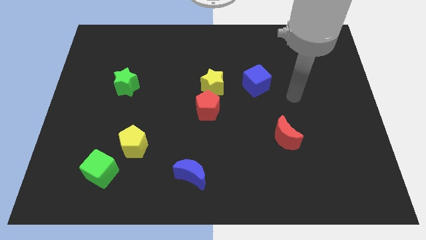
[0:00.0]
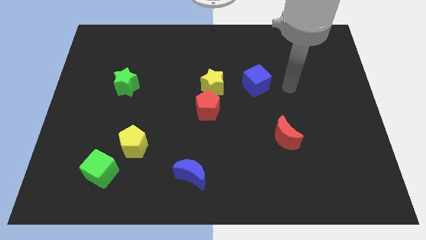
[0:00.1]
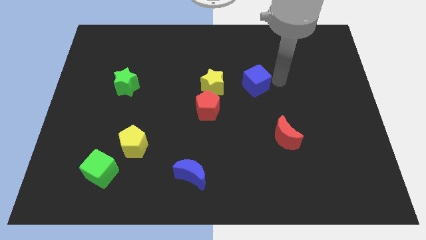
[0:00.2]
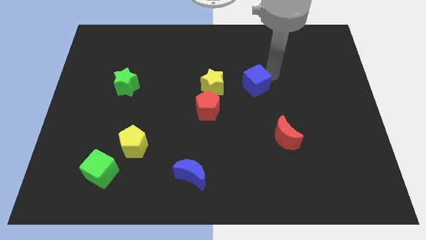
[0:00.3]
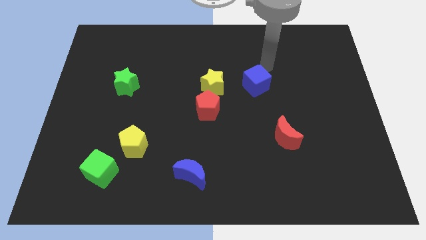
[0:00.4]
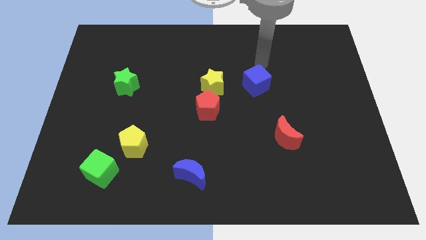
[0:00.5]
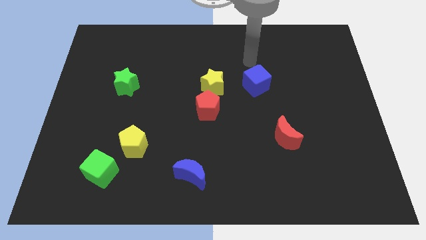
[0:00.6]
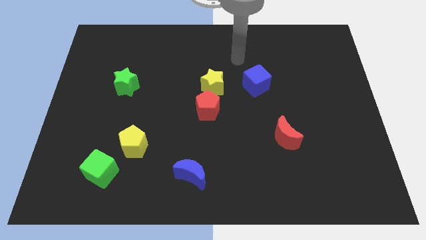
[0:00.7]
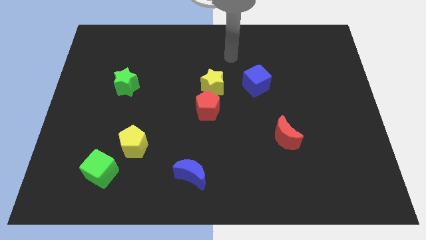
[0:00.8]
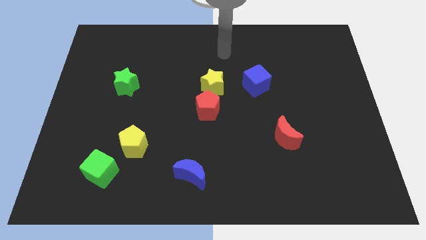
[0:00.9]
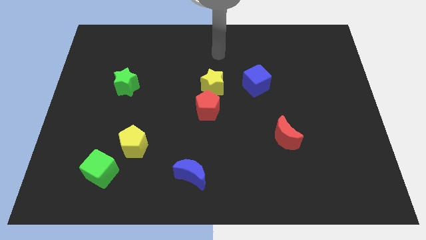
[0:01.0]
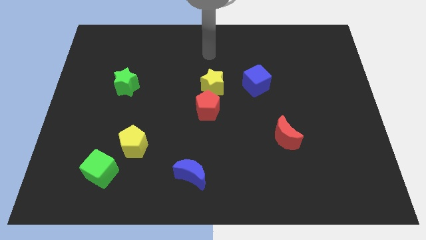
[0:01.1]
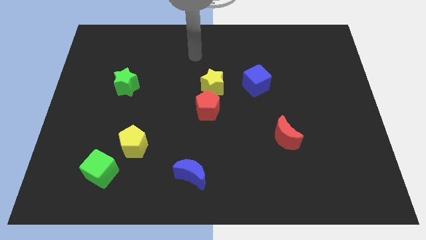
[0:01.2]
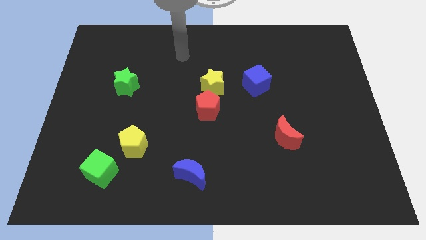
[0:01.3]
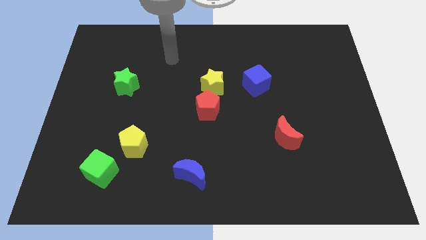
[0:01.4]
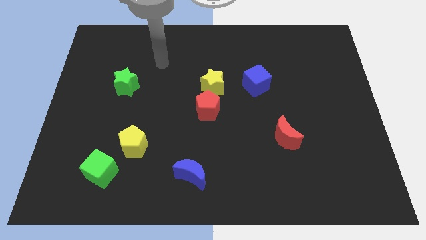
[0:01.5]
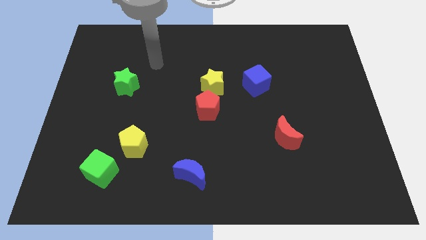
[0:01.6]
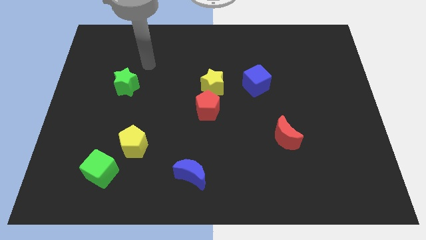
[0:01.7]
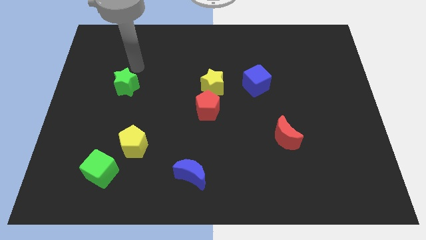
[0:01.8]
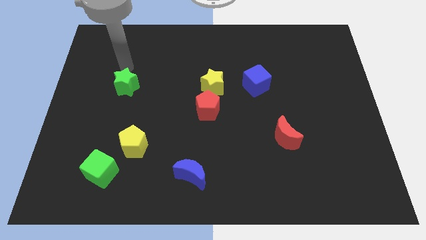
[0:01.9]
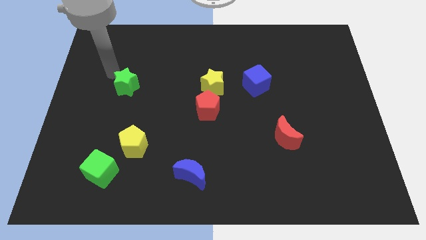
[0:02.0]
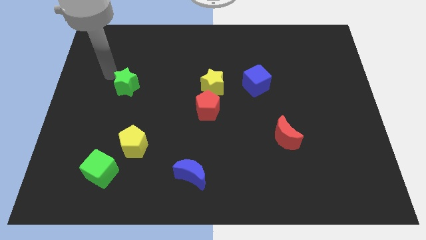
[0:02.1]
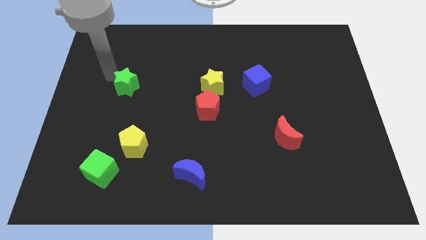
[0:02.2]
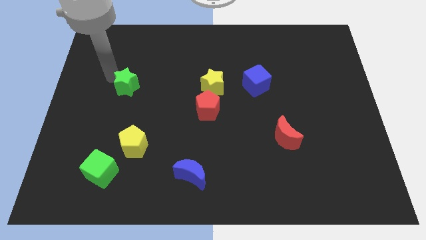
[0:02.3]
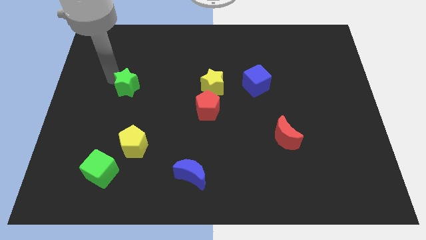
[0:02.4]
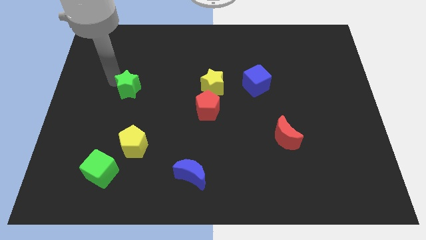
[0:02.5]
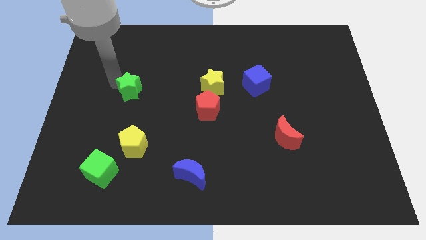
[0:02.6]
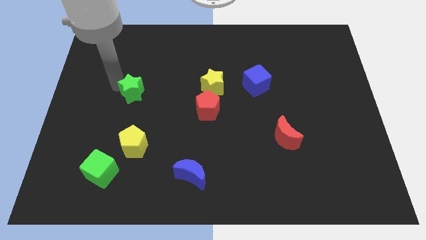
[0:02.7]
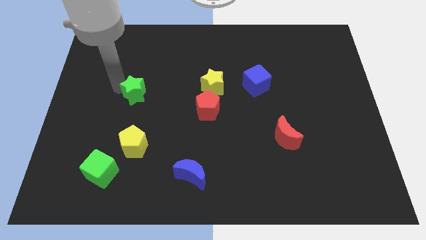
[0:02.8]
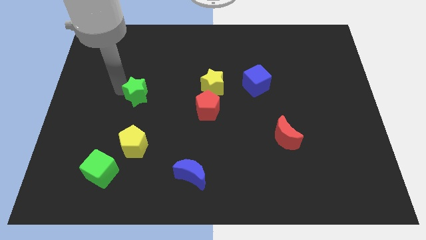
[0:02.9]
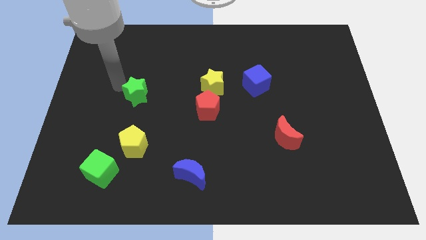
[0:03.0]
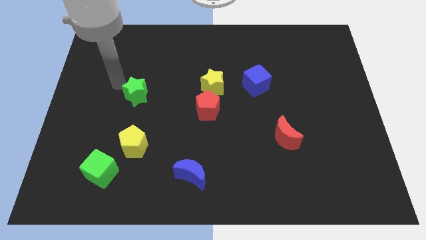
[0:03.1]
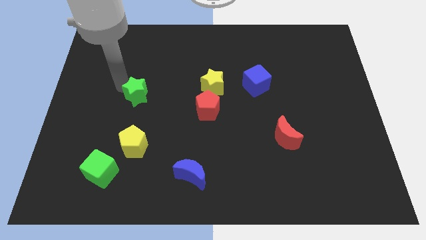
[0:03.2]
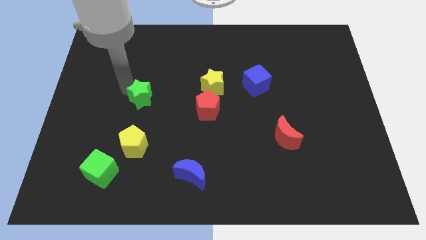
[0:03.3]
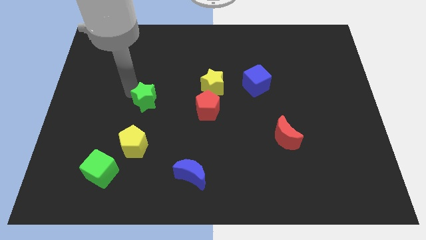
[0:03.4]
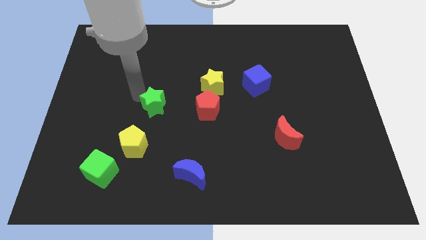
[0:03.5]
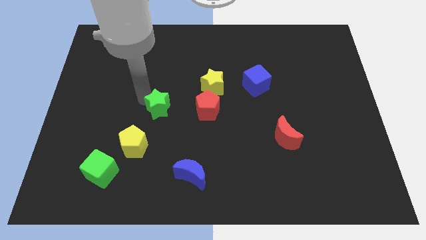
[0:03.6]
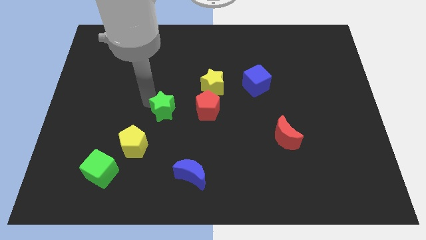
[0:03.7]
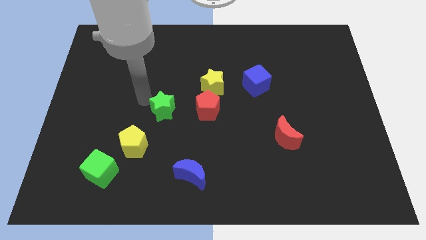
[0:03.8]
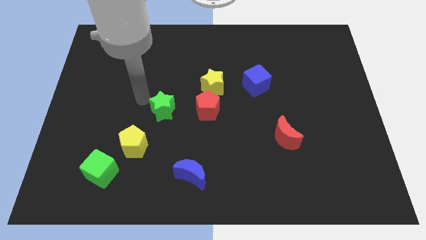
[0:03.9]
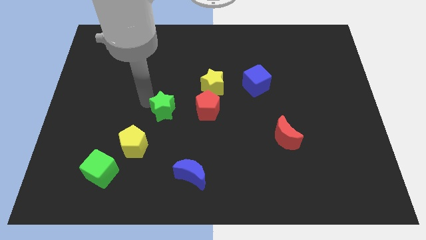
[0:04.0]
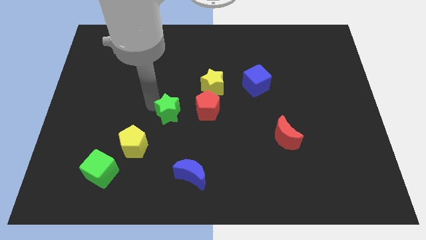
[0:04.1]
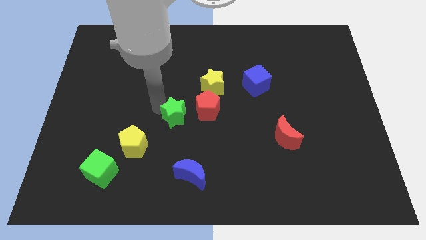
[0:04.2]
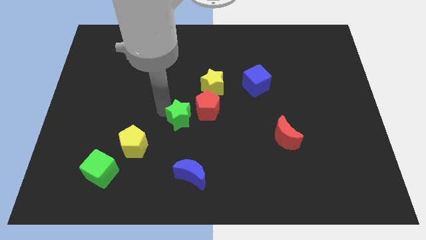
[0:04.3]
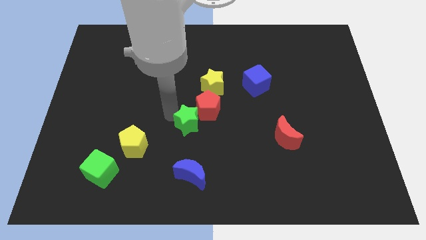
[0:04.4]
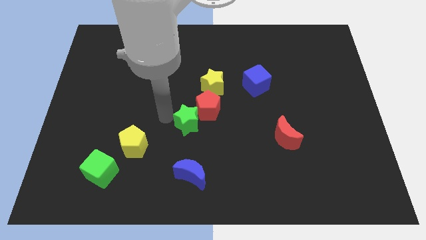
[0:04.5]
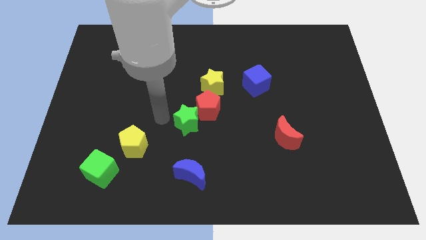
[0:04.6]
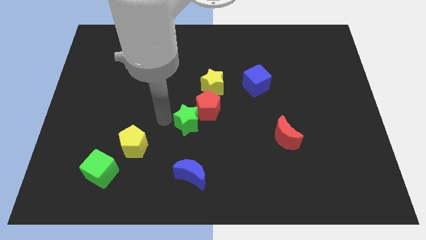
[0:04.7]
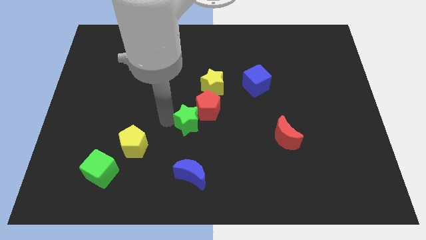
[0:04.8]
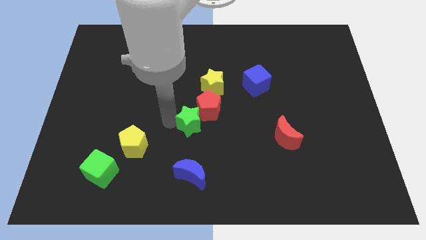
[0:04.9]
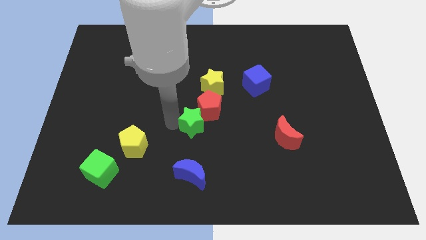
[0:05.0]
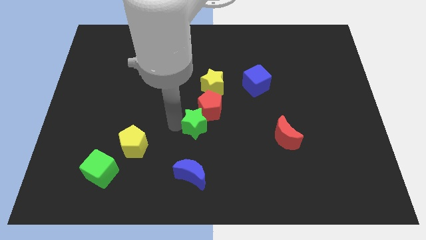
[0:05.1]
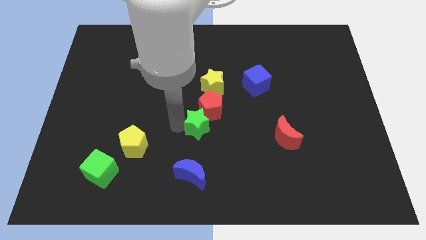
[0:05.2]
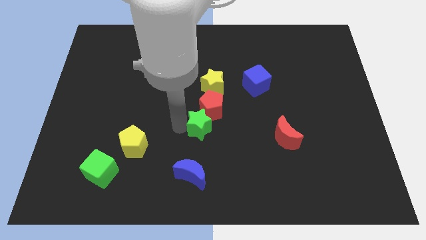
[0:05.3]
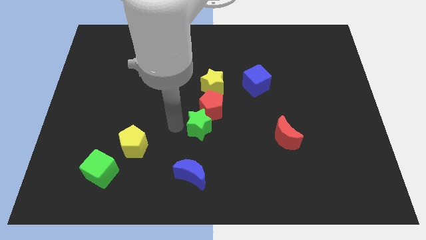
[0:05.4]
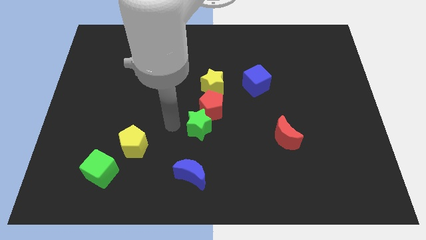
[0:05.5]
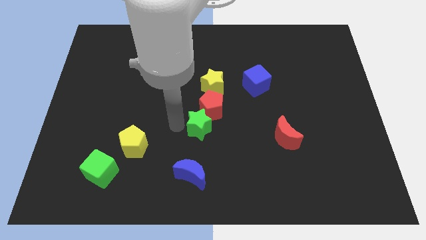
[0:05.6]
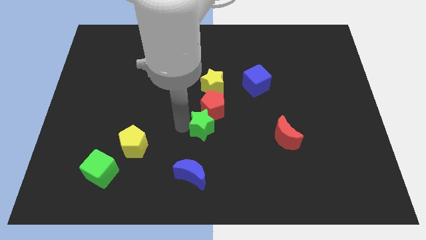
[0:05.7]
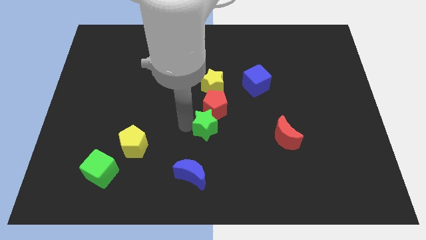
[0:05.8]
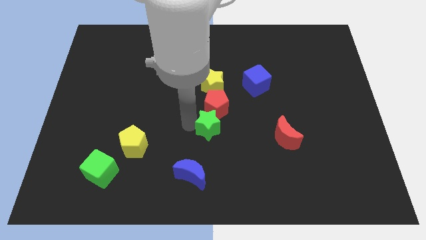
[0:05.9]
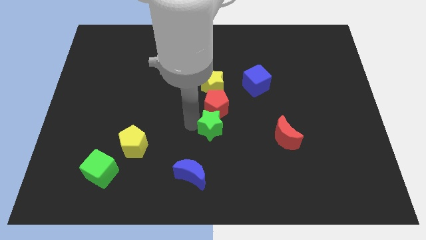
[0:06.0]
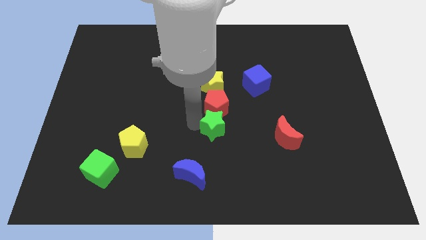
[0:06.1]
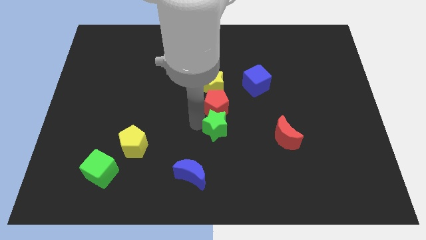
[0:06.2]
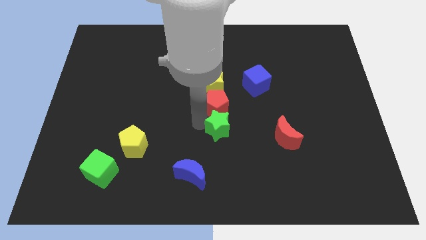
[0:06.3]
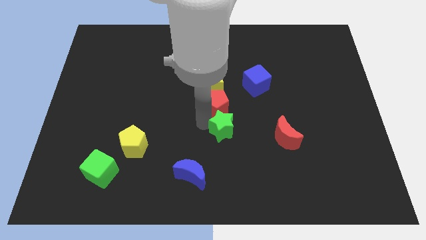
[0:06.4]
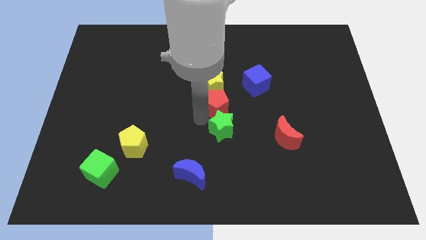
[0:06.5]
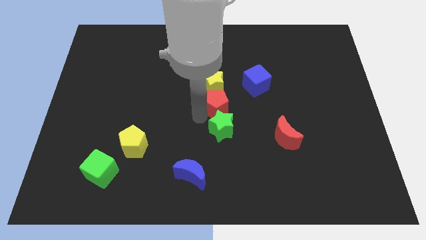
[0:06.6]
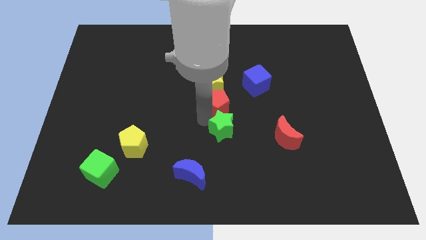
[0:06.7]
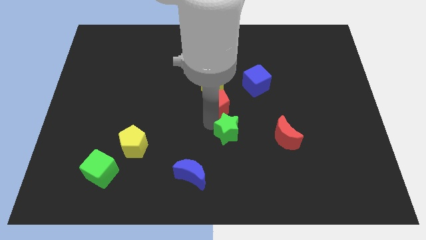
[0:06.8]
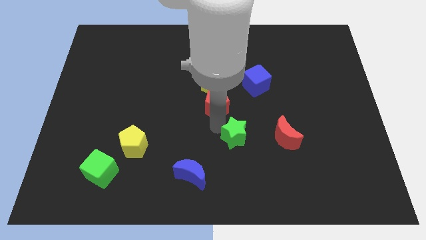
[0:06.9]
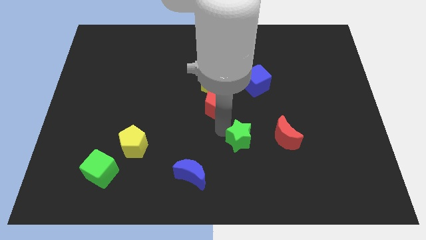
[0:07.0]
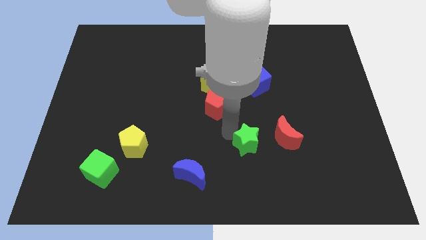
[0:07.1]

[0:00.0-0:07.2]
move the green star diagonally down and to the left of the red moon

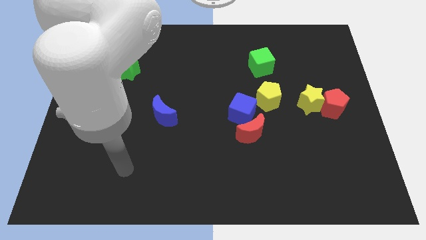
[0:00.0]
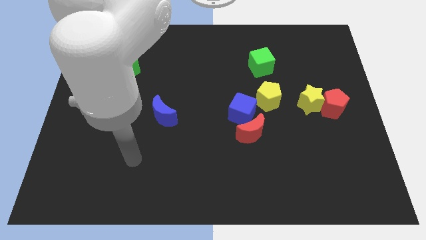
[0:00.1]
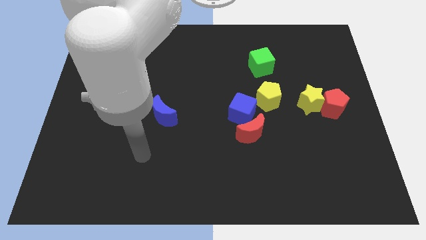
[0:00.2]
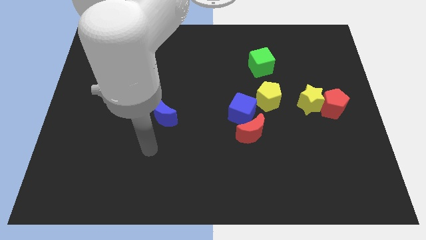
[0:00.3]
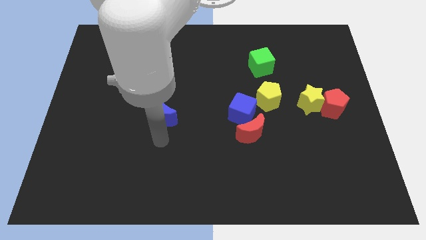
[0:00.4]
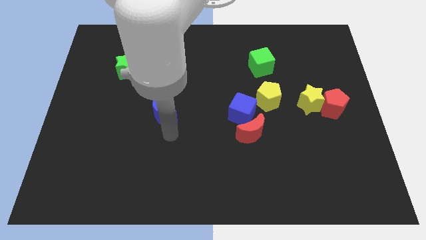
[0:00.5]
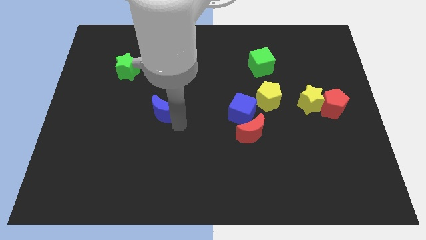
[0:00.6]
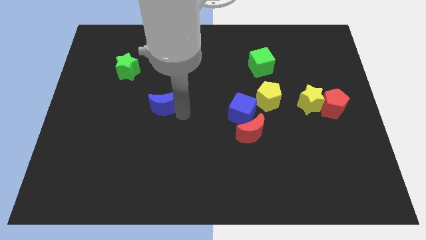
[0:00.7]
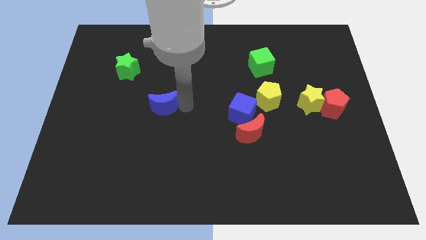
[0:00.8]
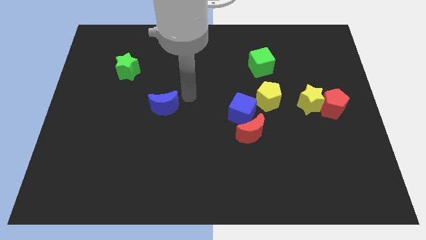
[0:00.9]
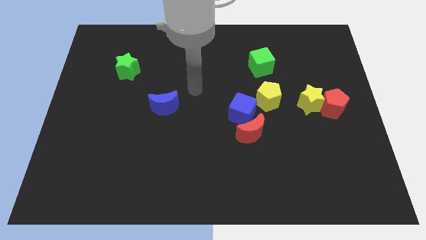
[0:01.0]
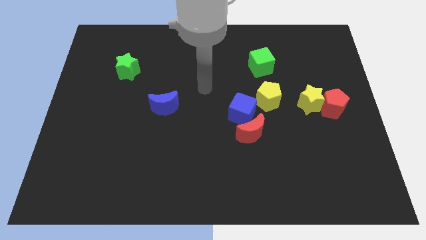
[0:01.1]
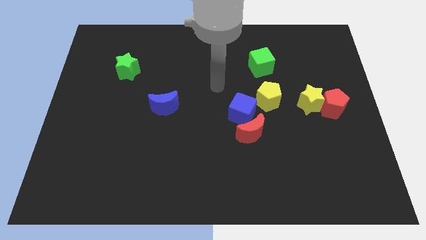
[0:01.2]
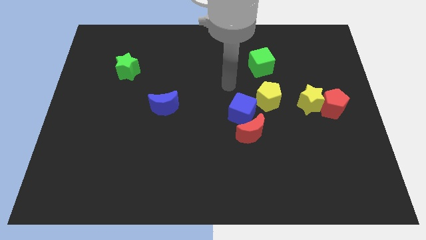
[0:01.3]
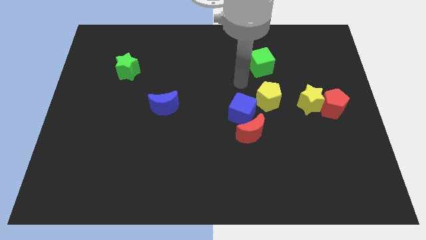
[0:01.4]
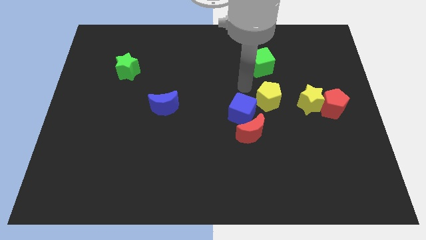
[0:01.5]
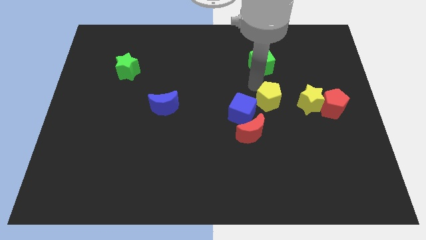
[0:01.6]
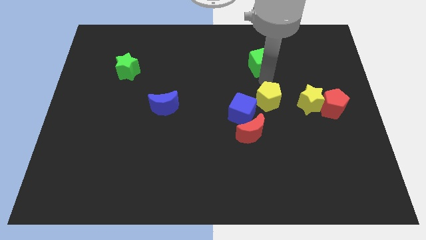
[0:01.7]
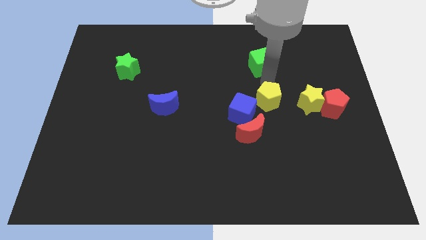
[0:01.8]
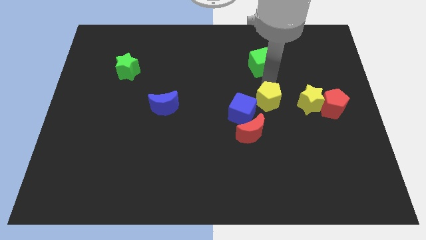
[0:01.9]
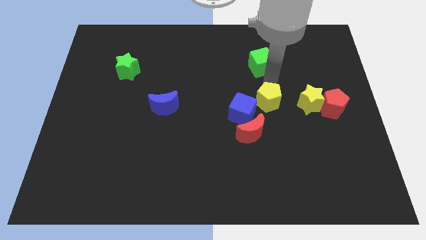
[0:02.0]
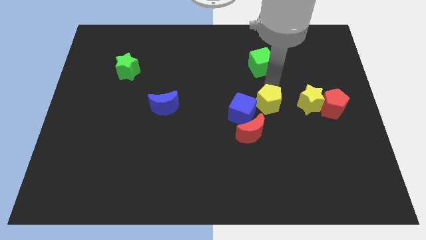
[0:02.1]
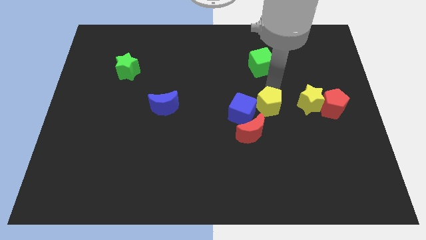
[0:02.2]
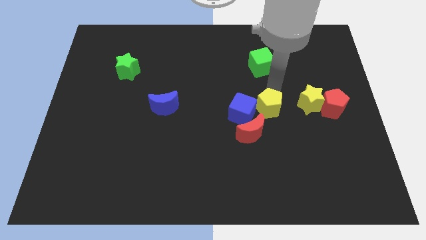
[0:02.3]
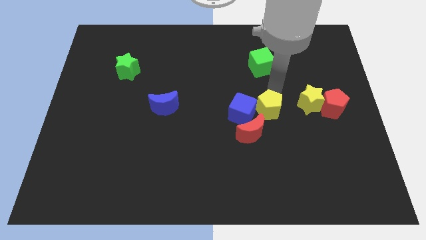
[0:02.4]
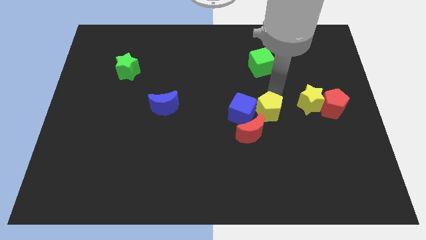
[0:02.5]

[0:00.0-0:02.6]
move the yellow pentagon to the bottom right of the blue cube
